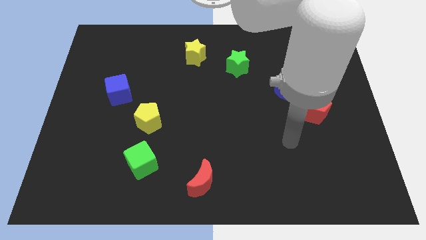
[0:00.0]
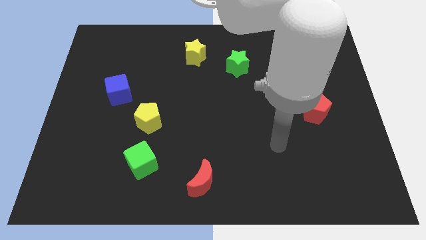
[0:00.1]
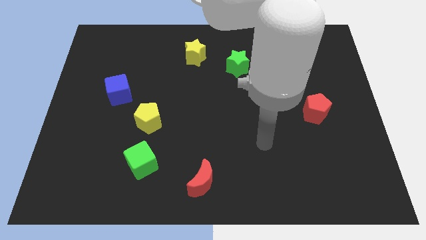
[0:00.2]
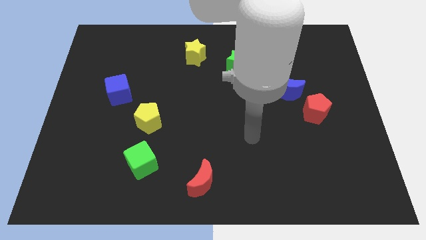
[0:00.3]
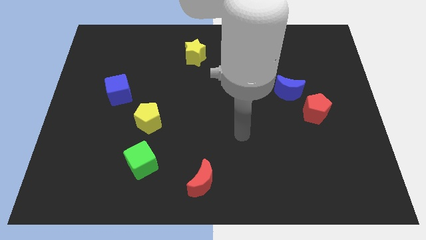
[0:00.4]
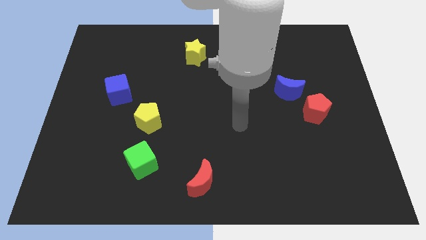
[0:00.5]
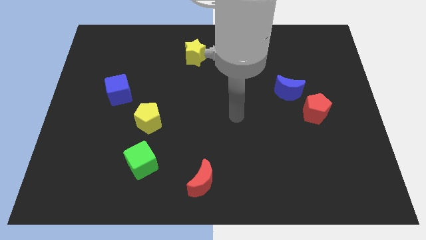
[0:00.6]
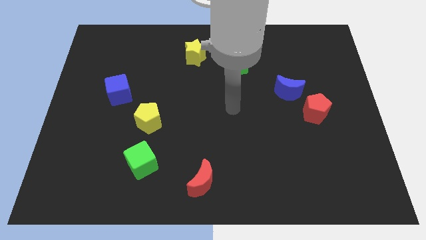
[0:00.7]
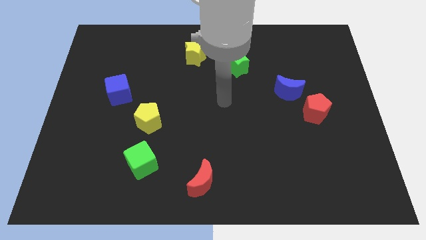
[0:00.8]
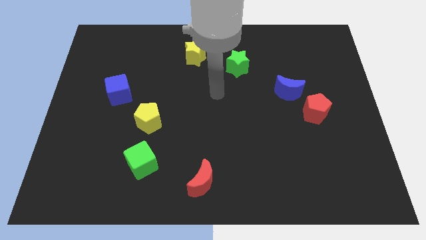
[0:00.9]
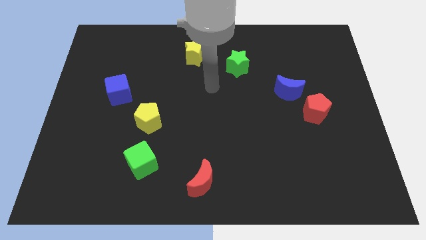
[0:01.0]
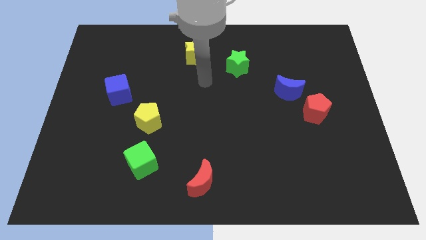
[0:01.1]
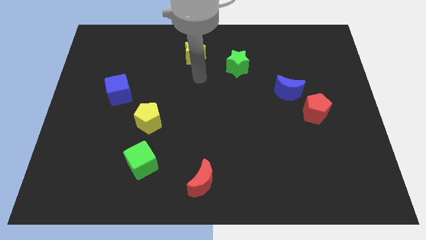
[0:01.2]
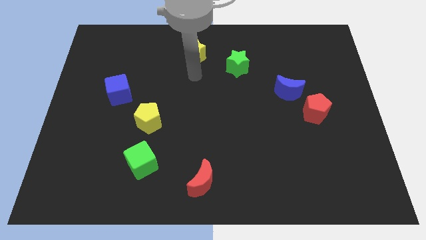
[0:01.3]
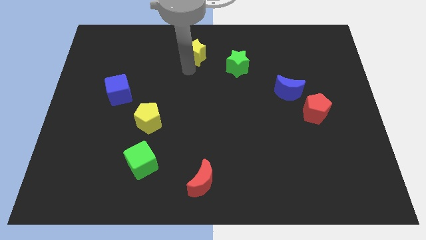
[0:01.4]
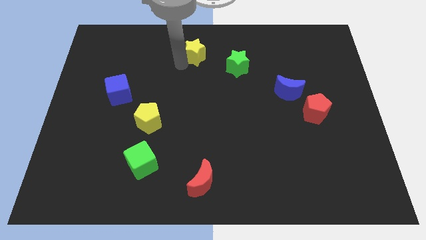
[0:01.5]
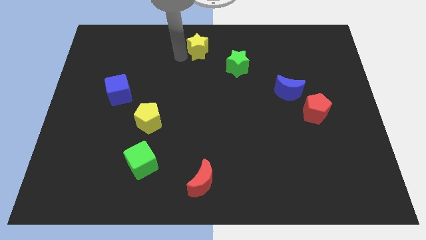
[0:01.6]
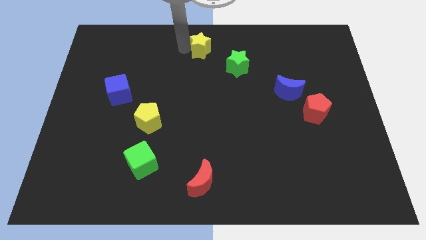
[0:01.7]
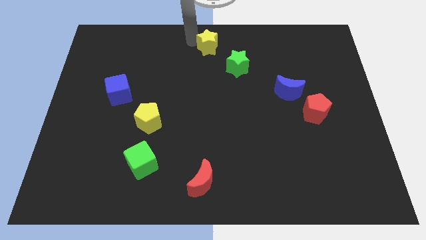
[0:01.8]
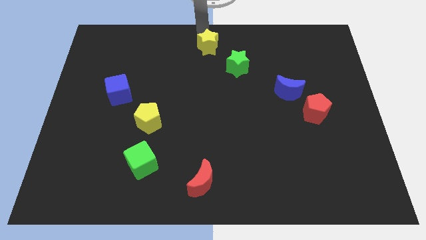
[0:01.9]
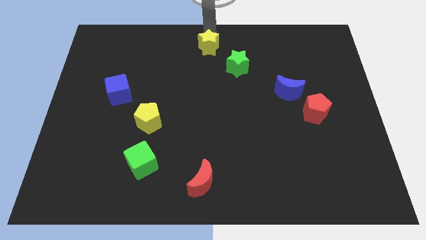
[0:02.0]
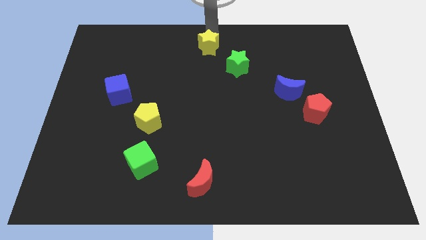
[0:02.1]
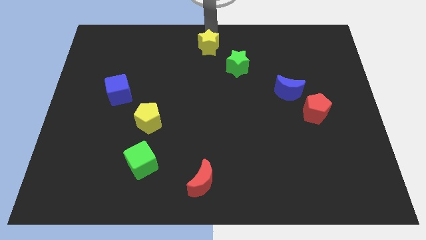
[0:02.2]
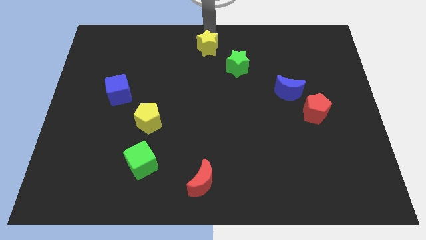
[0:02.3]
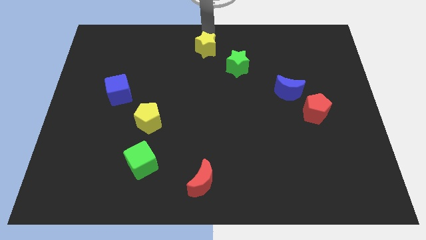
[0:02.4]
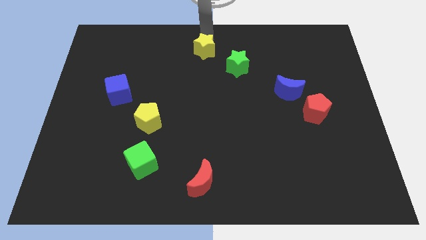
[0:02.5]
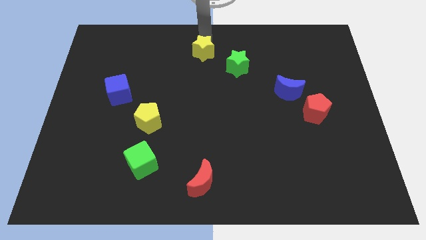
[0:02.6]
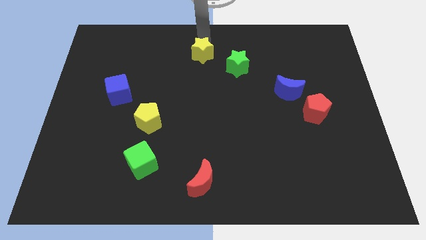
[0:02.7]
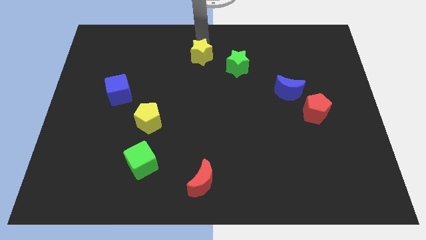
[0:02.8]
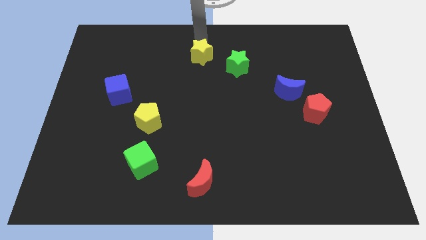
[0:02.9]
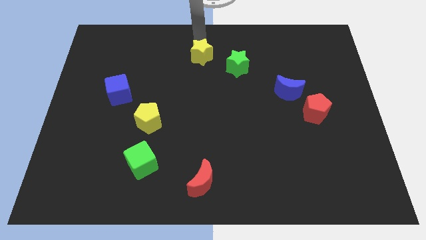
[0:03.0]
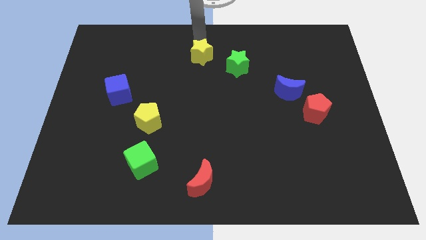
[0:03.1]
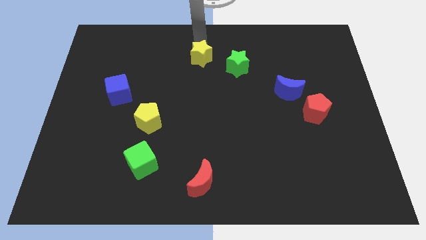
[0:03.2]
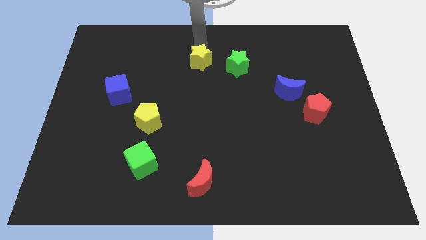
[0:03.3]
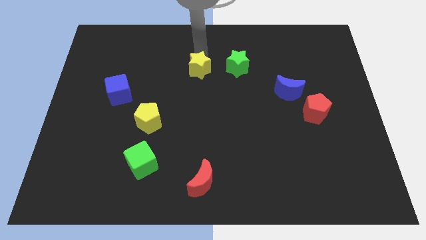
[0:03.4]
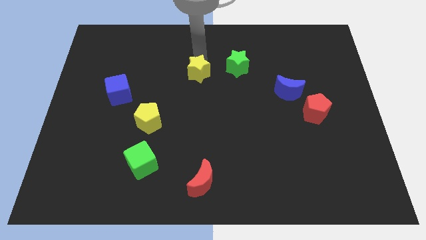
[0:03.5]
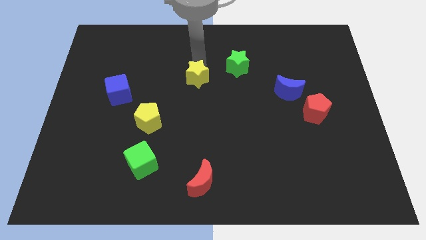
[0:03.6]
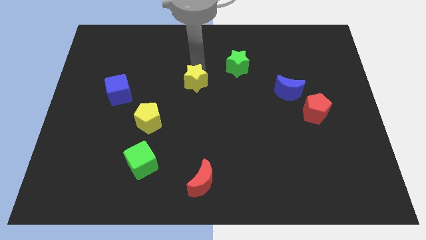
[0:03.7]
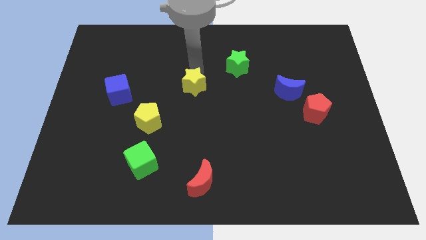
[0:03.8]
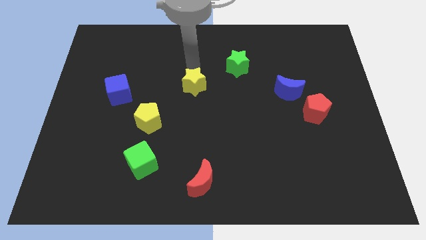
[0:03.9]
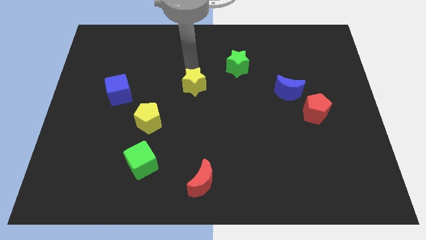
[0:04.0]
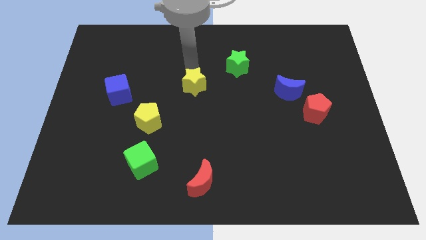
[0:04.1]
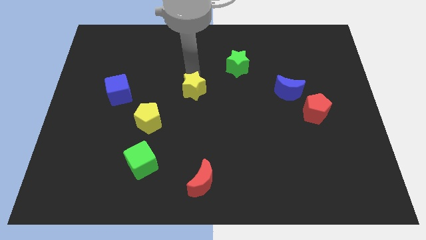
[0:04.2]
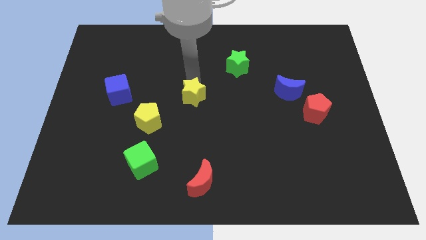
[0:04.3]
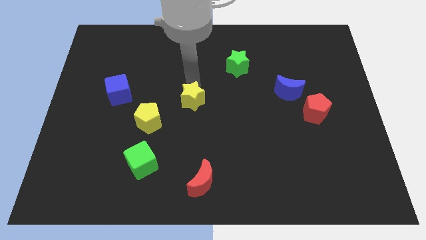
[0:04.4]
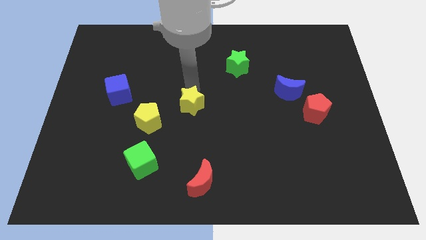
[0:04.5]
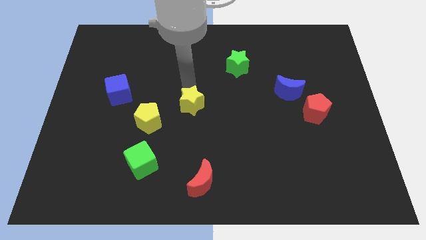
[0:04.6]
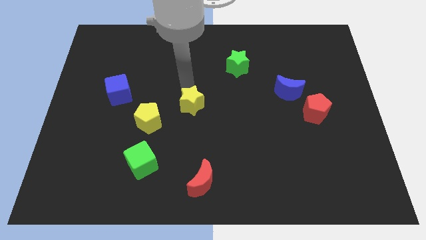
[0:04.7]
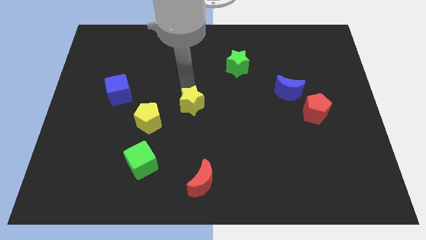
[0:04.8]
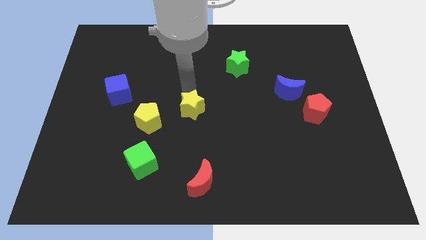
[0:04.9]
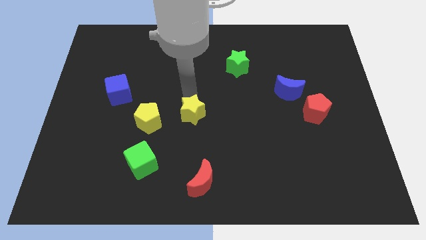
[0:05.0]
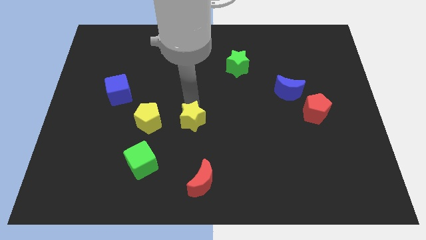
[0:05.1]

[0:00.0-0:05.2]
push the yellow star down

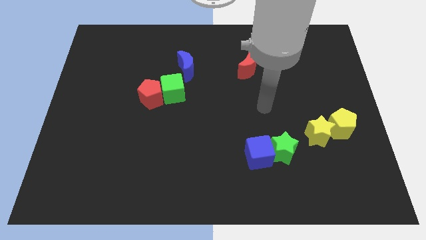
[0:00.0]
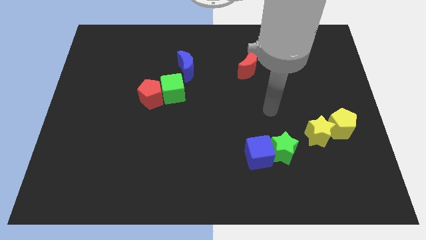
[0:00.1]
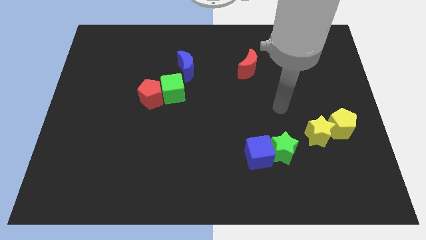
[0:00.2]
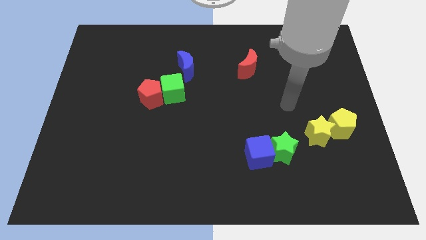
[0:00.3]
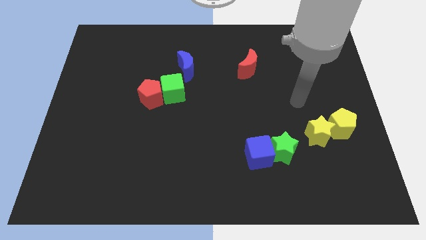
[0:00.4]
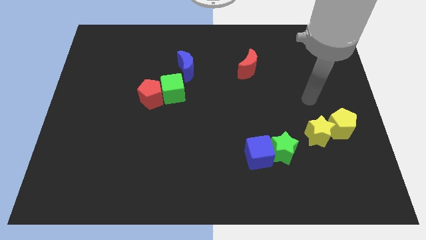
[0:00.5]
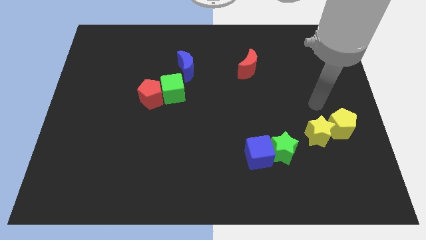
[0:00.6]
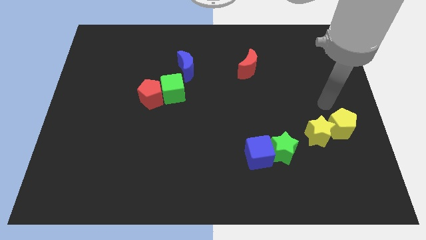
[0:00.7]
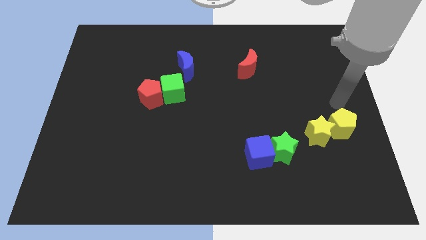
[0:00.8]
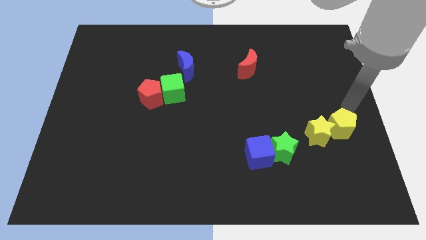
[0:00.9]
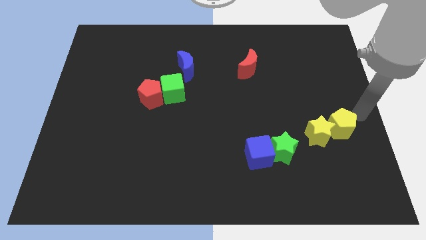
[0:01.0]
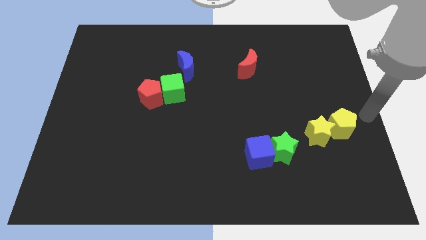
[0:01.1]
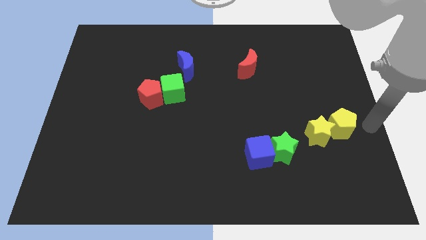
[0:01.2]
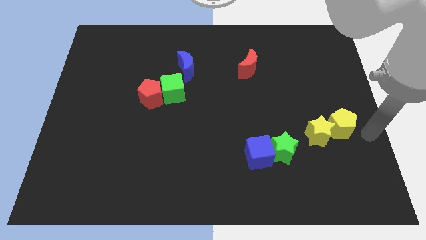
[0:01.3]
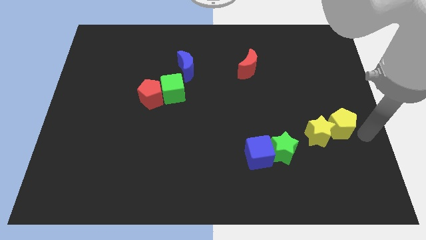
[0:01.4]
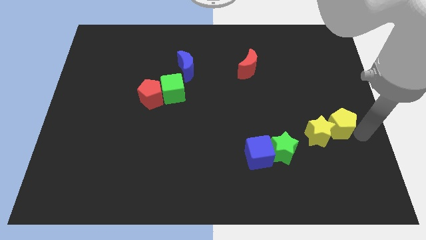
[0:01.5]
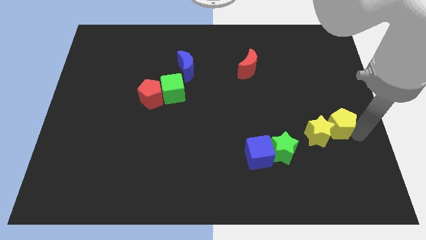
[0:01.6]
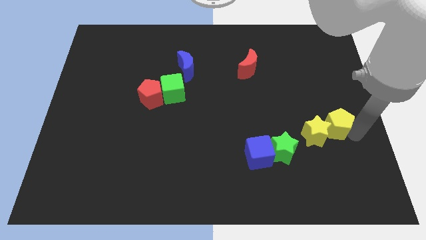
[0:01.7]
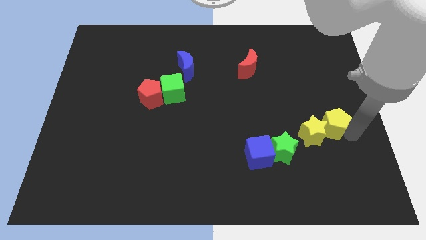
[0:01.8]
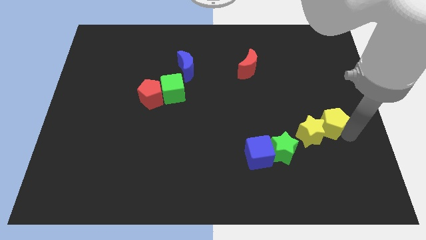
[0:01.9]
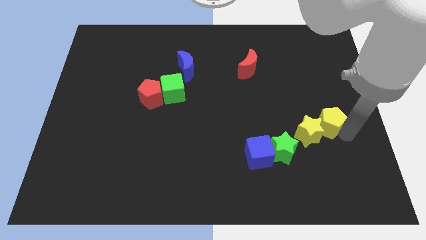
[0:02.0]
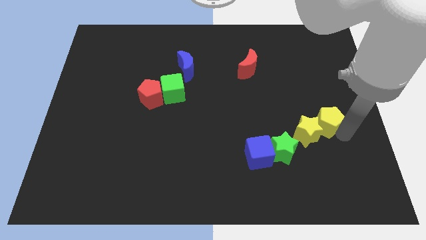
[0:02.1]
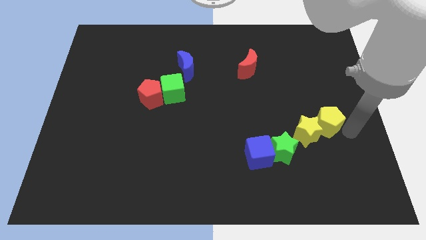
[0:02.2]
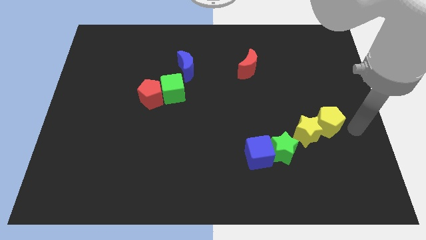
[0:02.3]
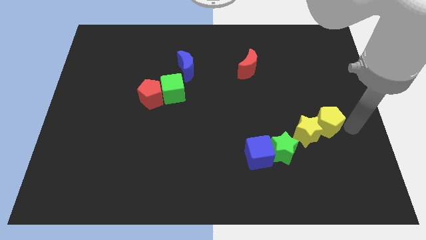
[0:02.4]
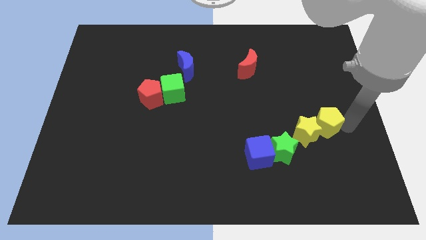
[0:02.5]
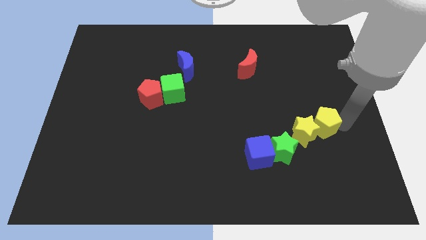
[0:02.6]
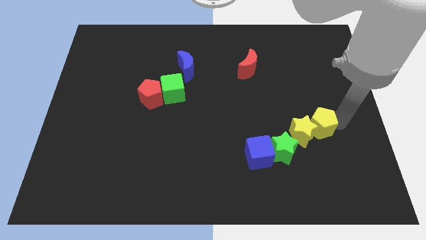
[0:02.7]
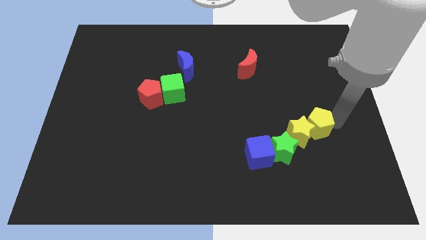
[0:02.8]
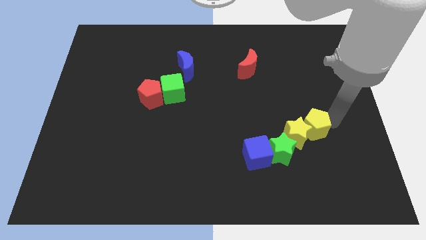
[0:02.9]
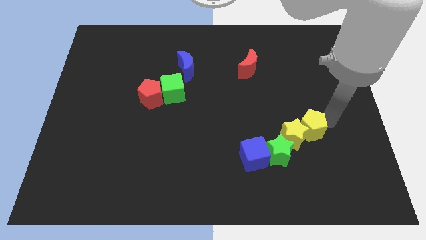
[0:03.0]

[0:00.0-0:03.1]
move the yellow pentagon left a little
